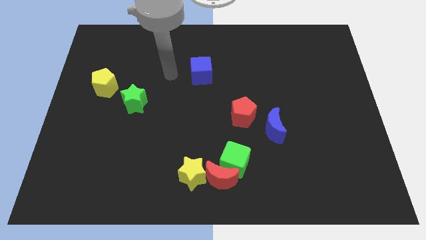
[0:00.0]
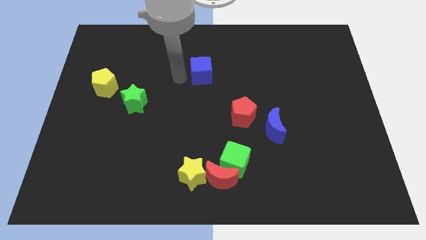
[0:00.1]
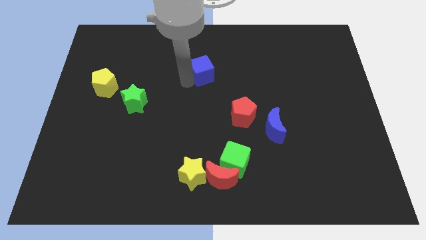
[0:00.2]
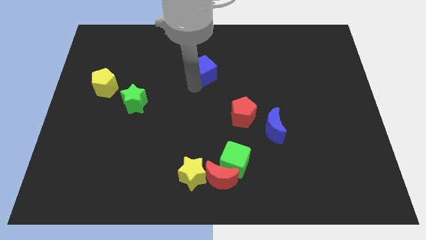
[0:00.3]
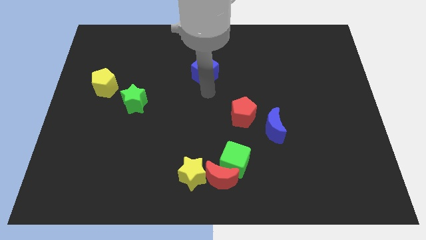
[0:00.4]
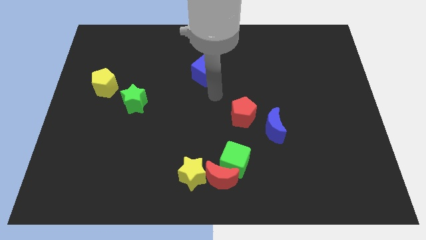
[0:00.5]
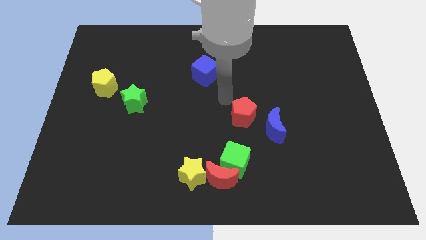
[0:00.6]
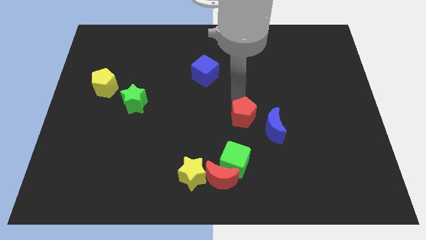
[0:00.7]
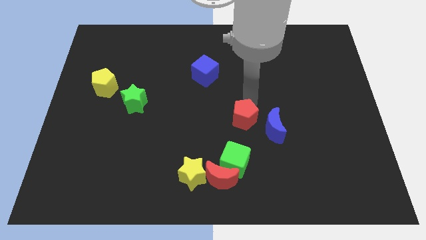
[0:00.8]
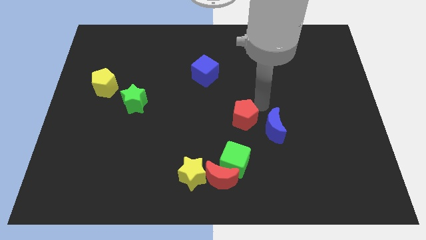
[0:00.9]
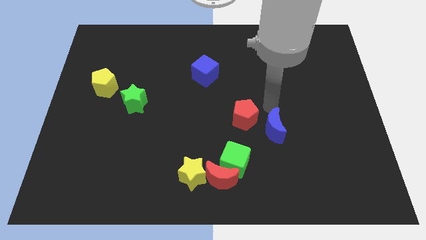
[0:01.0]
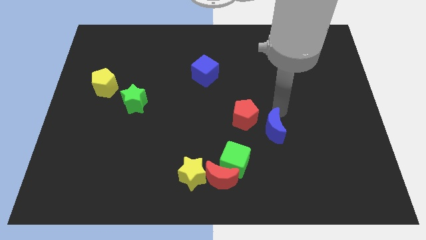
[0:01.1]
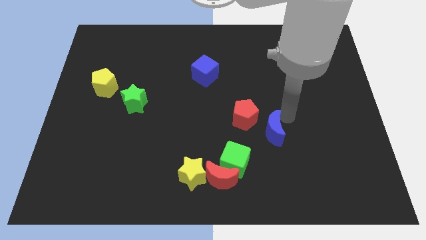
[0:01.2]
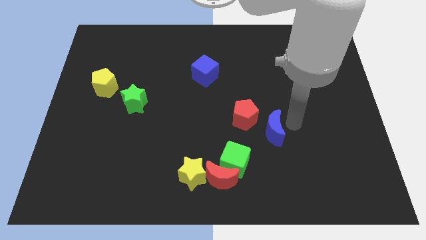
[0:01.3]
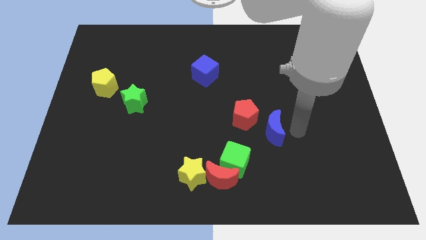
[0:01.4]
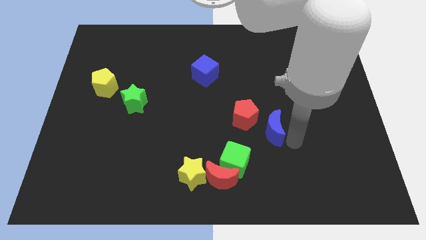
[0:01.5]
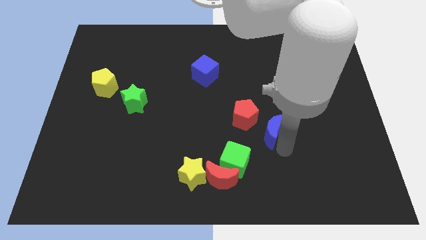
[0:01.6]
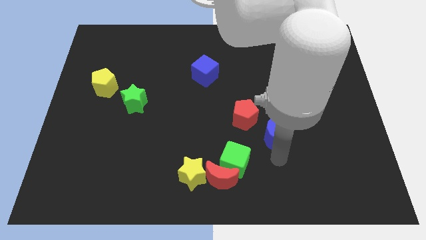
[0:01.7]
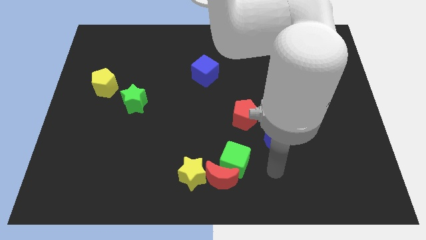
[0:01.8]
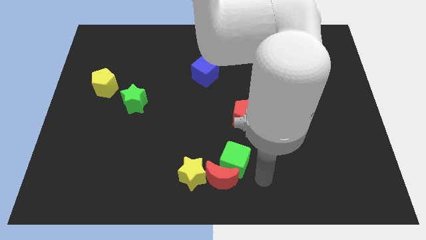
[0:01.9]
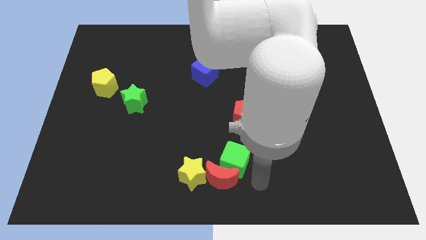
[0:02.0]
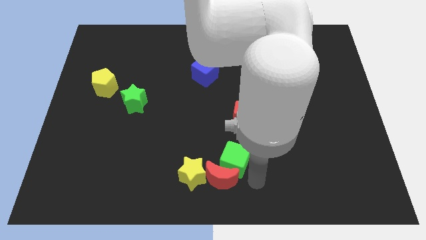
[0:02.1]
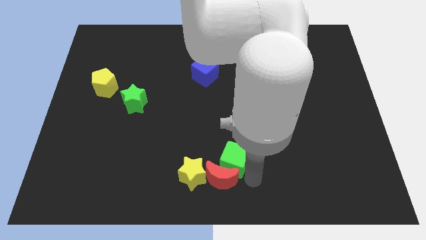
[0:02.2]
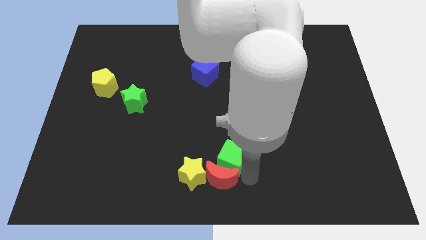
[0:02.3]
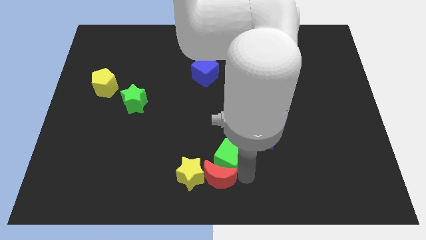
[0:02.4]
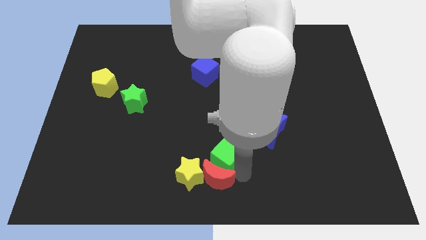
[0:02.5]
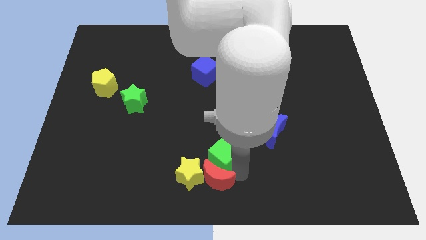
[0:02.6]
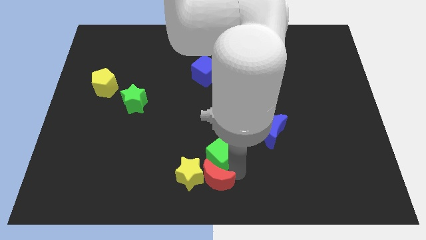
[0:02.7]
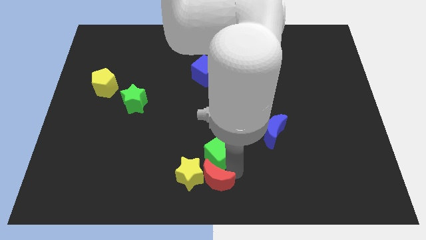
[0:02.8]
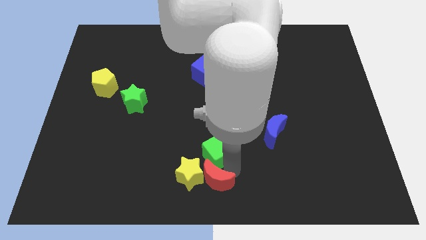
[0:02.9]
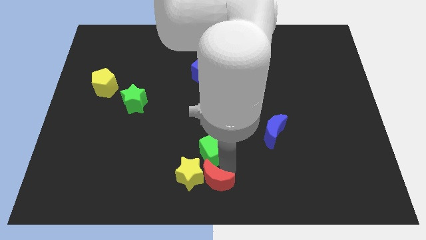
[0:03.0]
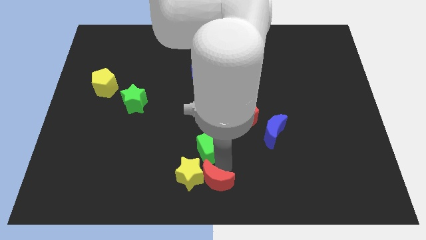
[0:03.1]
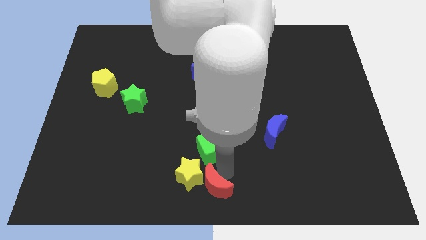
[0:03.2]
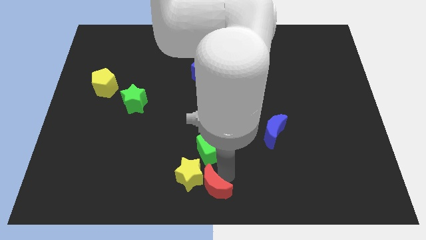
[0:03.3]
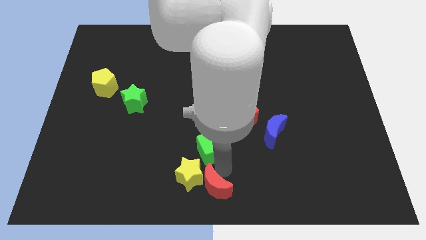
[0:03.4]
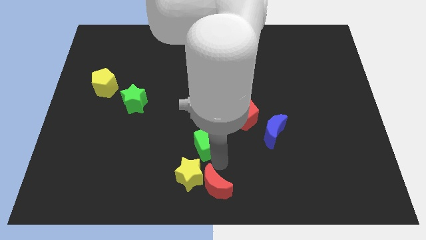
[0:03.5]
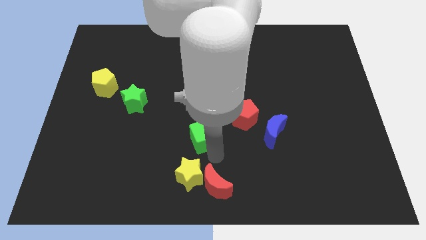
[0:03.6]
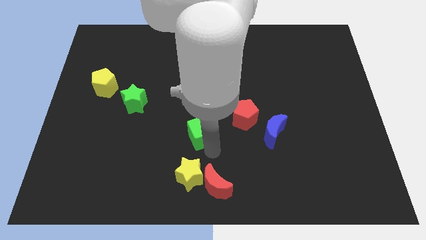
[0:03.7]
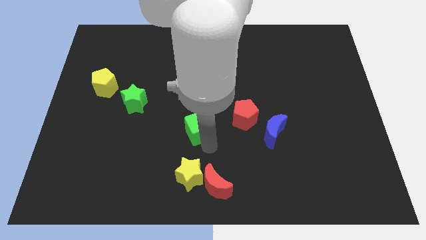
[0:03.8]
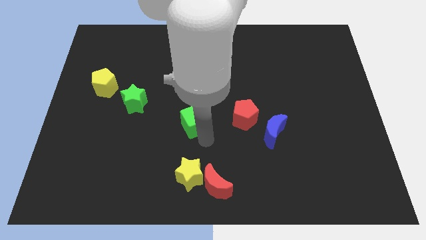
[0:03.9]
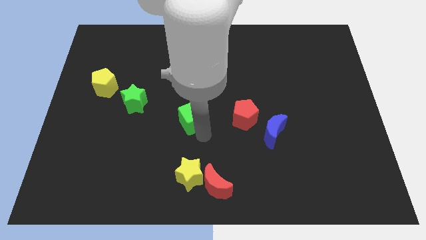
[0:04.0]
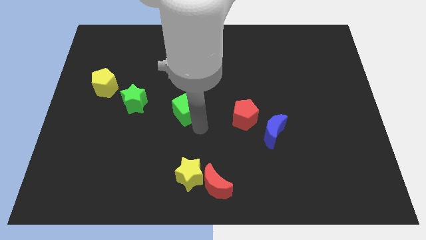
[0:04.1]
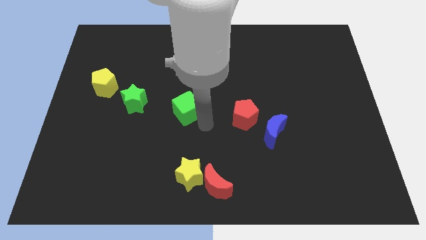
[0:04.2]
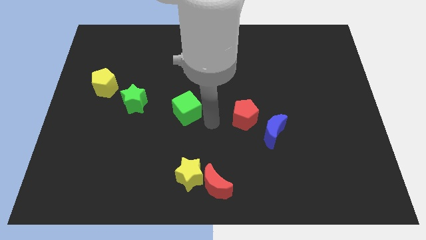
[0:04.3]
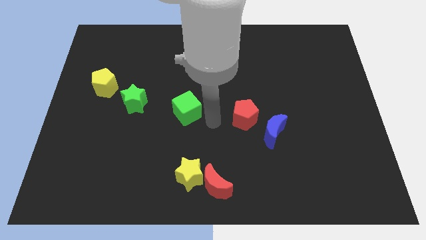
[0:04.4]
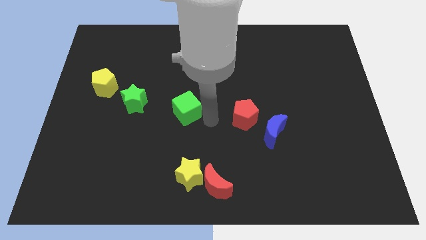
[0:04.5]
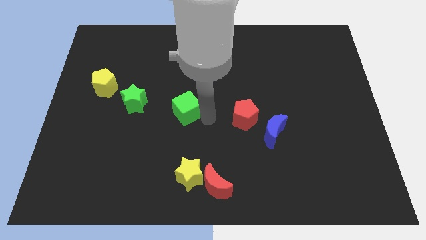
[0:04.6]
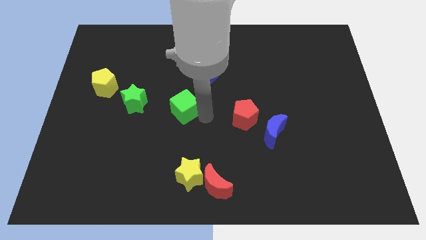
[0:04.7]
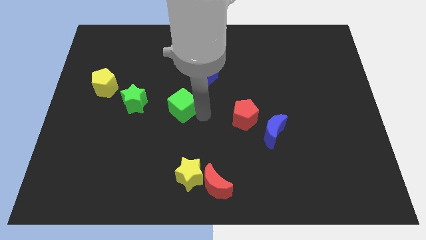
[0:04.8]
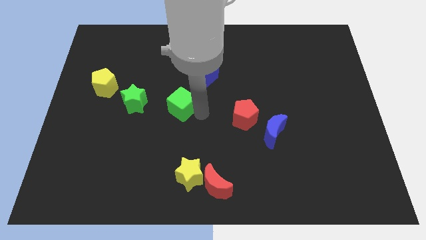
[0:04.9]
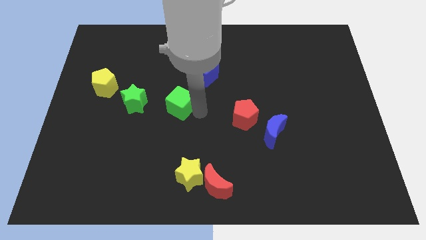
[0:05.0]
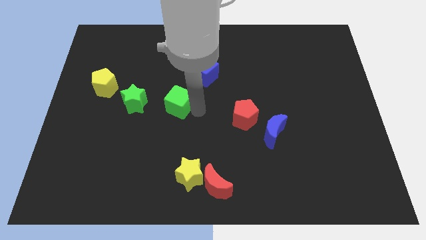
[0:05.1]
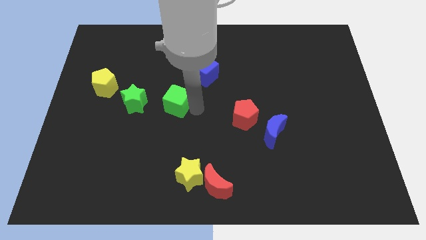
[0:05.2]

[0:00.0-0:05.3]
move the green cube diagonally upwards and to the left

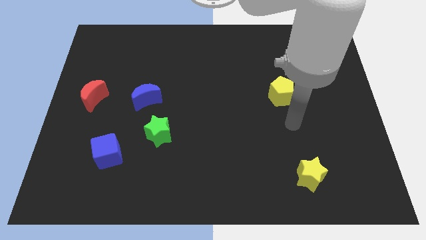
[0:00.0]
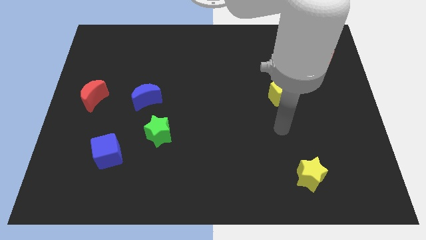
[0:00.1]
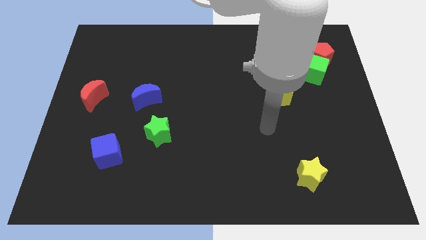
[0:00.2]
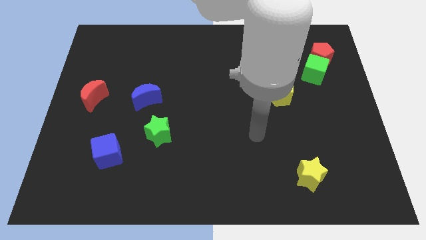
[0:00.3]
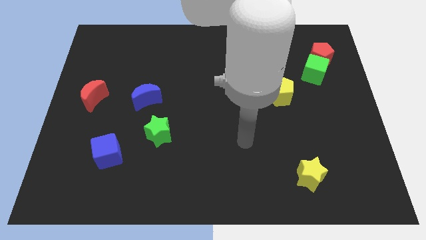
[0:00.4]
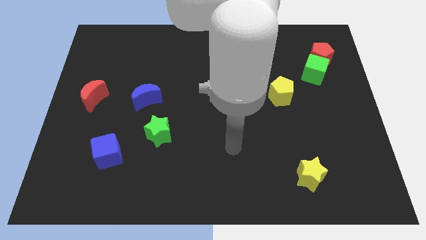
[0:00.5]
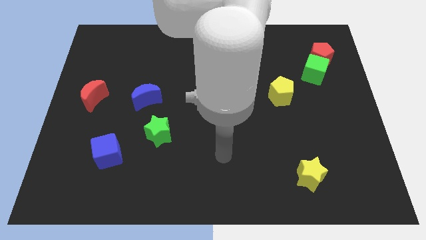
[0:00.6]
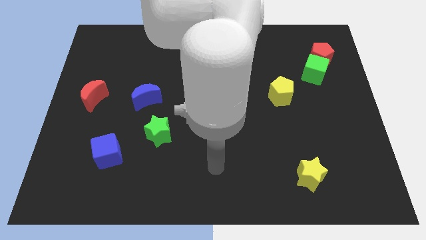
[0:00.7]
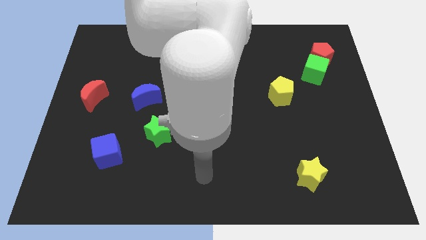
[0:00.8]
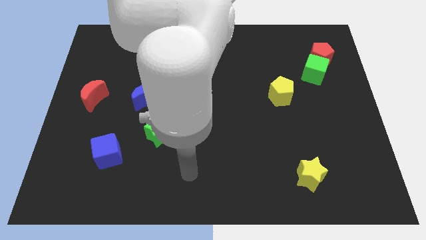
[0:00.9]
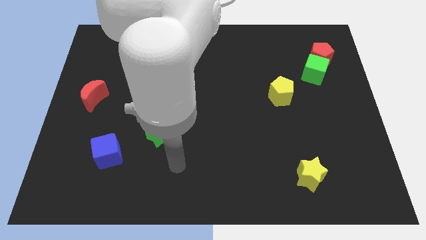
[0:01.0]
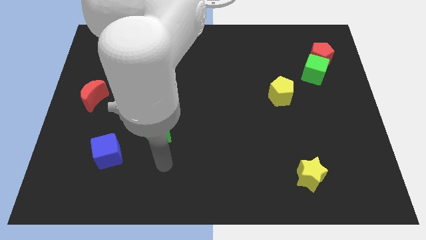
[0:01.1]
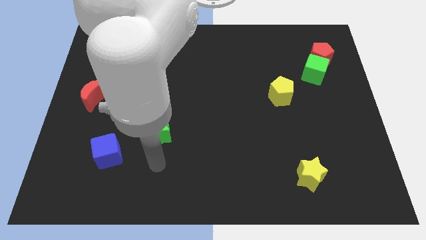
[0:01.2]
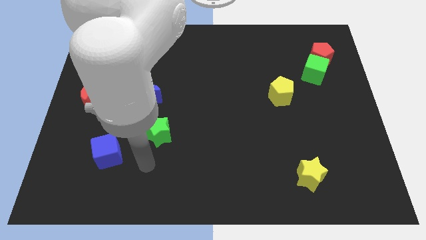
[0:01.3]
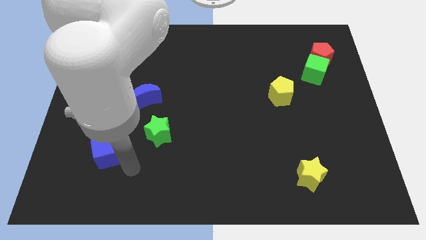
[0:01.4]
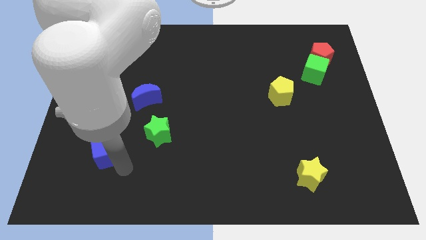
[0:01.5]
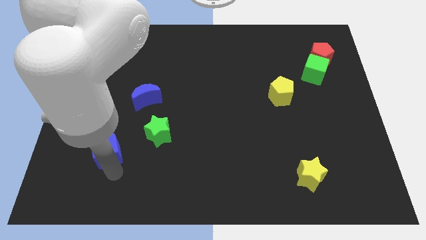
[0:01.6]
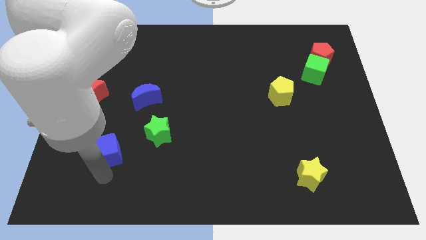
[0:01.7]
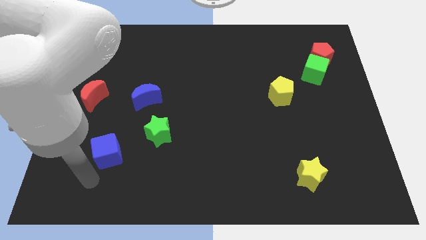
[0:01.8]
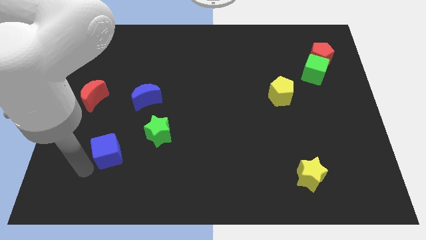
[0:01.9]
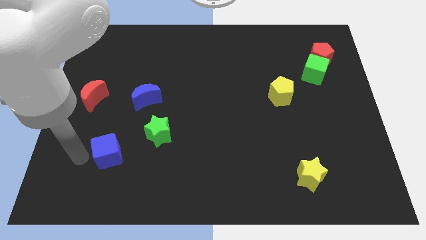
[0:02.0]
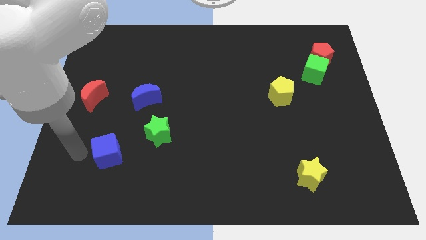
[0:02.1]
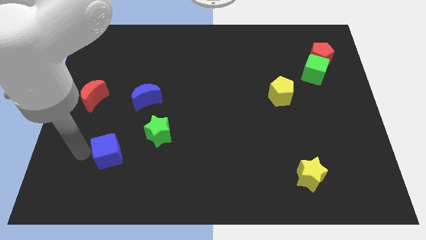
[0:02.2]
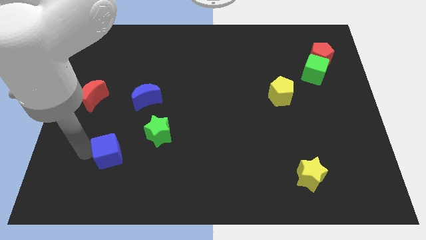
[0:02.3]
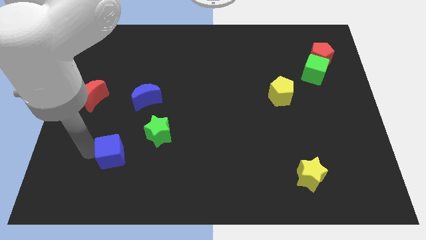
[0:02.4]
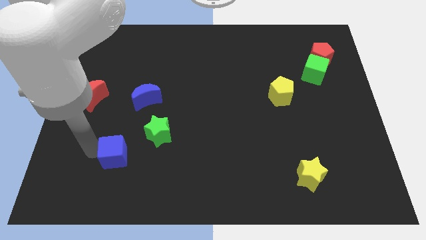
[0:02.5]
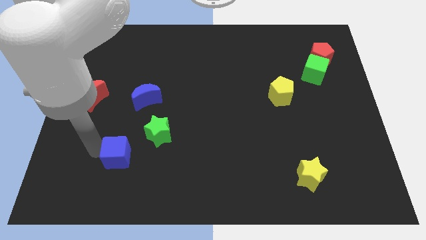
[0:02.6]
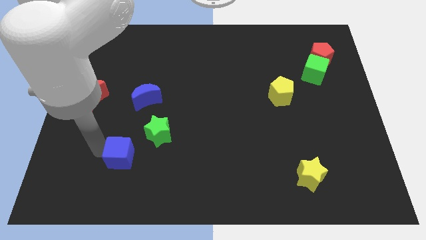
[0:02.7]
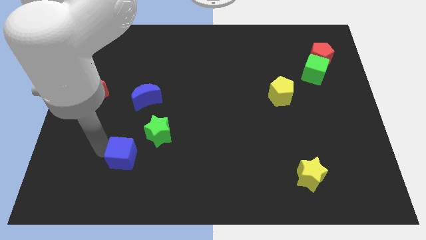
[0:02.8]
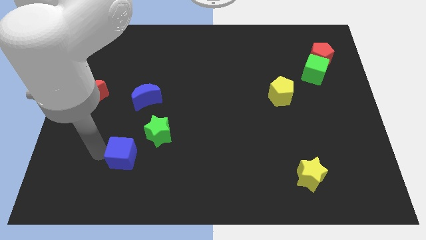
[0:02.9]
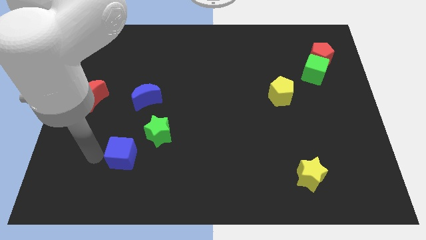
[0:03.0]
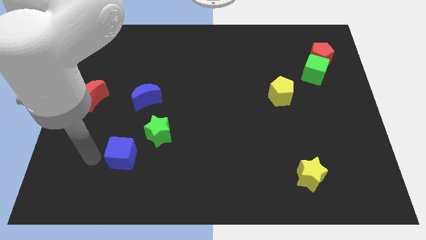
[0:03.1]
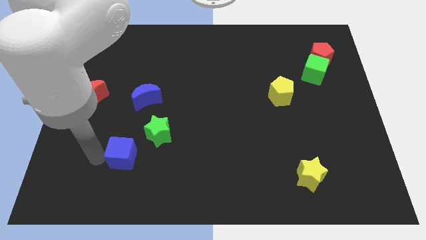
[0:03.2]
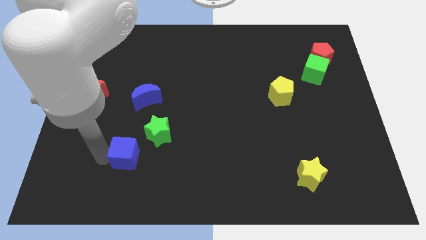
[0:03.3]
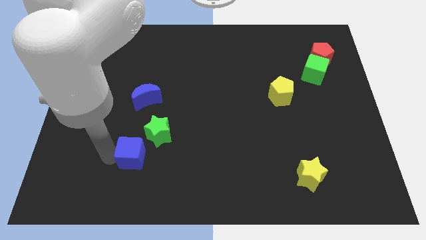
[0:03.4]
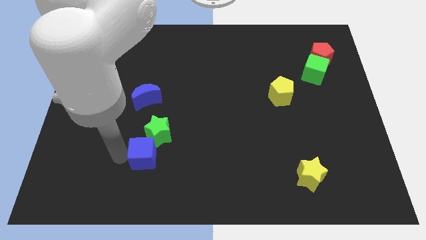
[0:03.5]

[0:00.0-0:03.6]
push the blue cube right slightly
